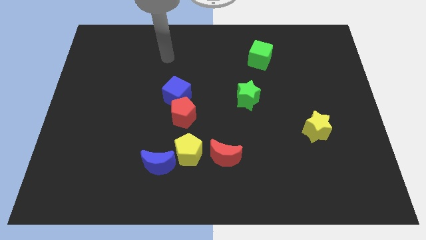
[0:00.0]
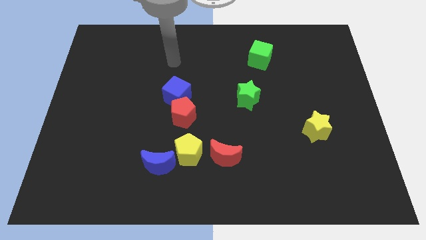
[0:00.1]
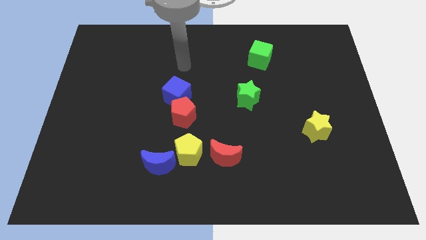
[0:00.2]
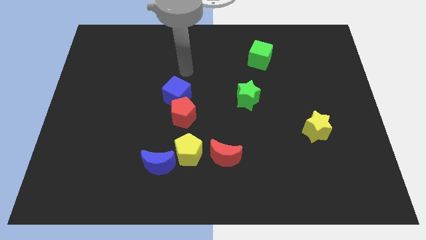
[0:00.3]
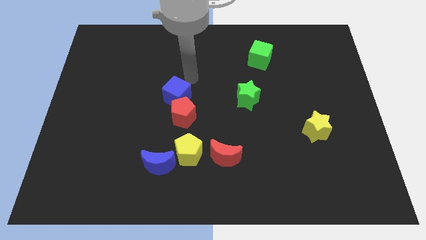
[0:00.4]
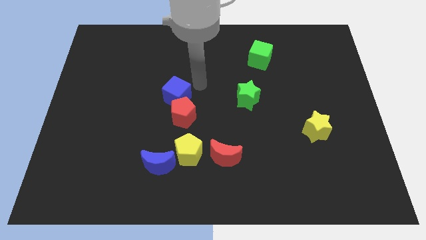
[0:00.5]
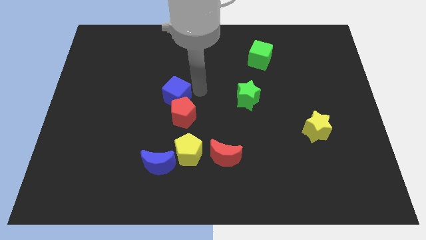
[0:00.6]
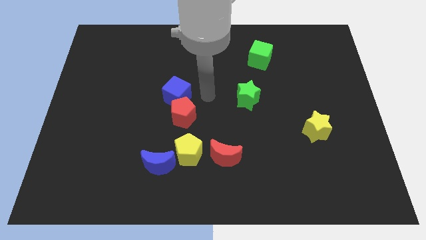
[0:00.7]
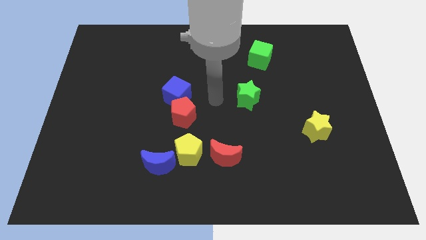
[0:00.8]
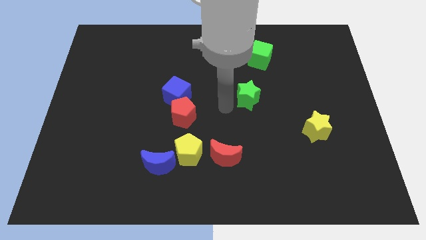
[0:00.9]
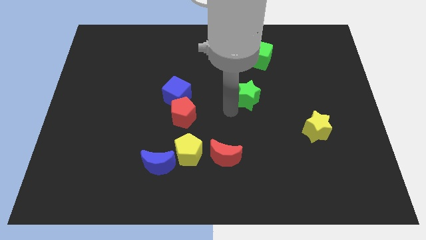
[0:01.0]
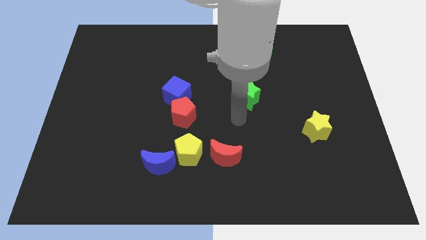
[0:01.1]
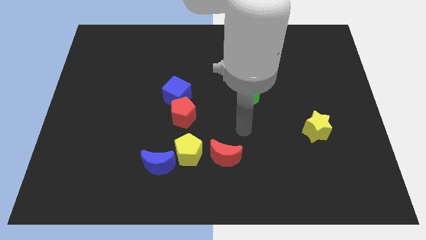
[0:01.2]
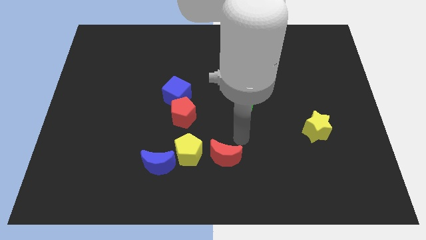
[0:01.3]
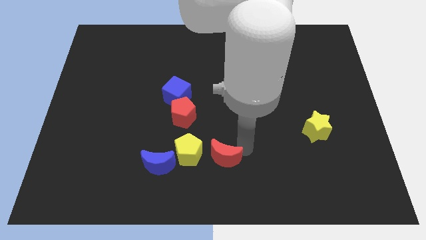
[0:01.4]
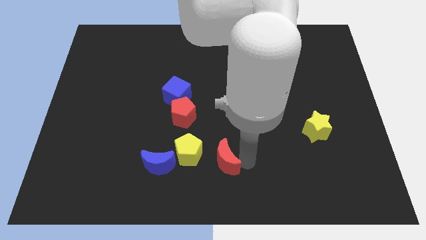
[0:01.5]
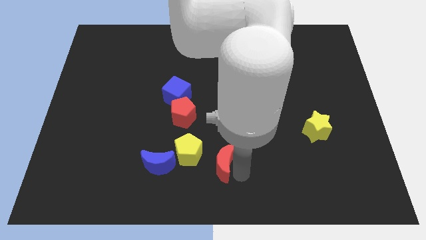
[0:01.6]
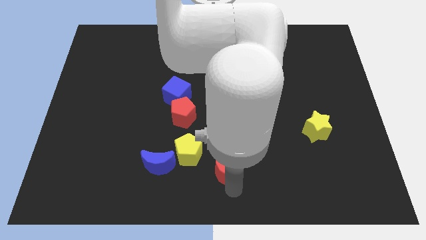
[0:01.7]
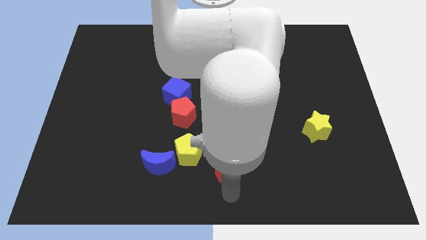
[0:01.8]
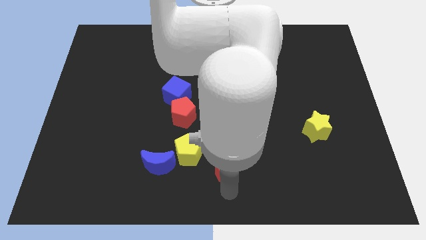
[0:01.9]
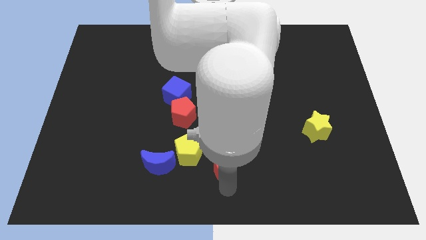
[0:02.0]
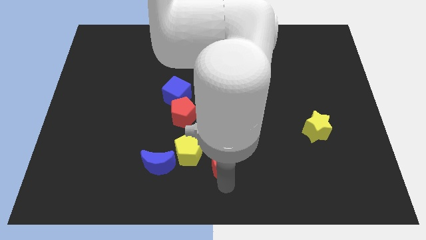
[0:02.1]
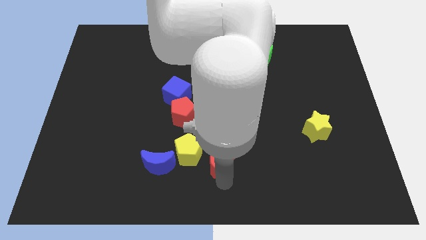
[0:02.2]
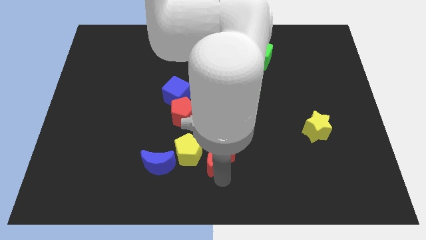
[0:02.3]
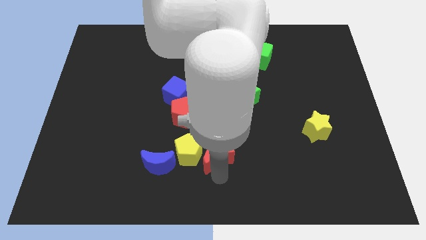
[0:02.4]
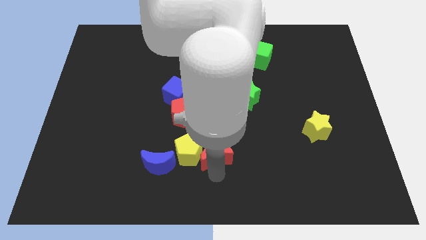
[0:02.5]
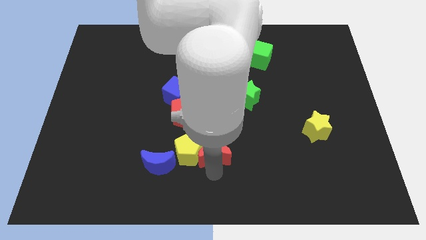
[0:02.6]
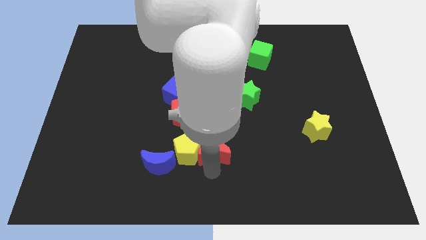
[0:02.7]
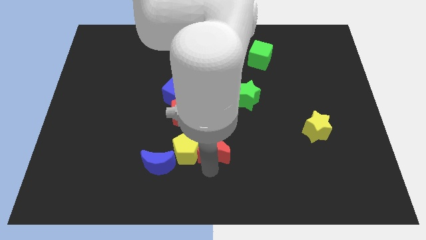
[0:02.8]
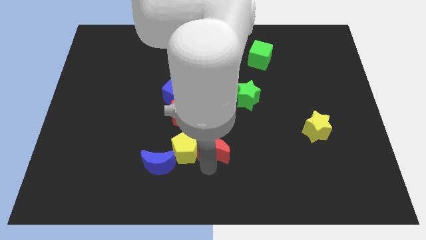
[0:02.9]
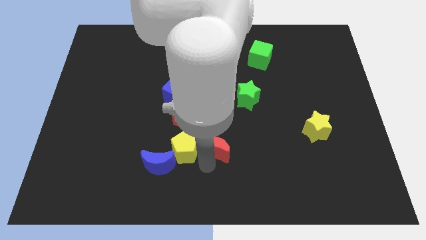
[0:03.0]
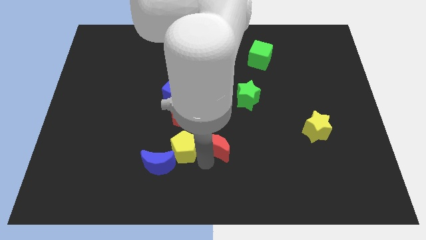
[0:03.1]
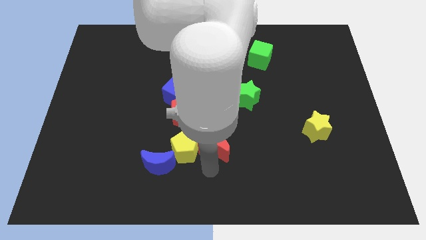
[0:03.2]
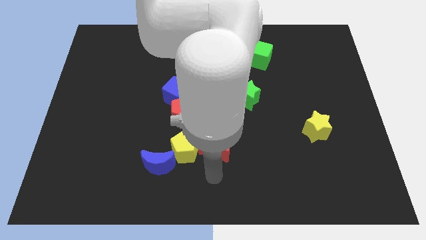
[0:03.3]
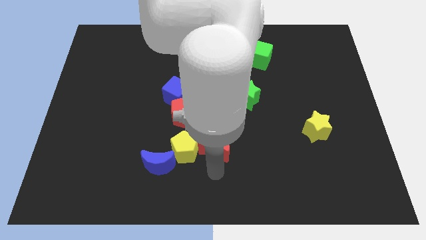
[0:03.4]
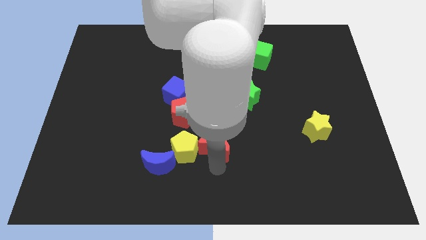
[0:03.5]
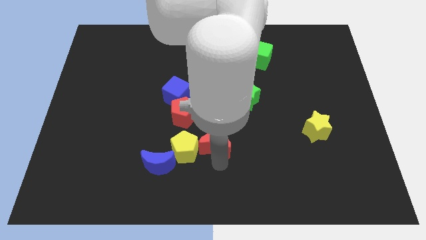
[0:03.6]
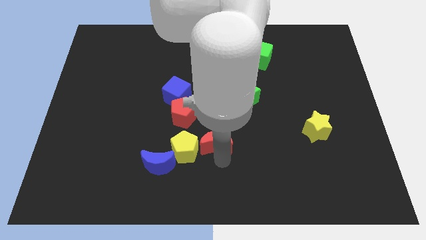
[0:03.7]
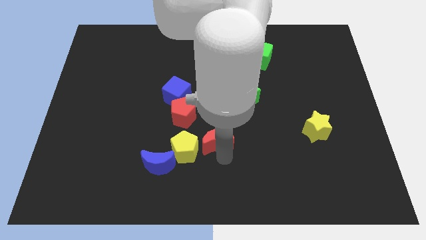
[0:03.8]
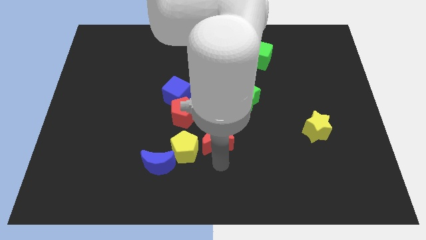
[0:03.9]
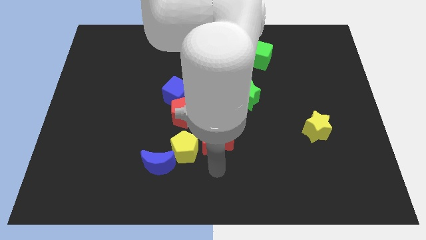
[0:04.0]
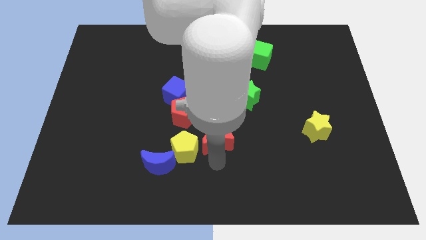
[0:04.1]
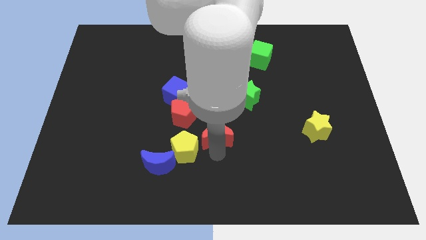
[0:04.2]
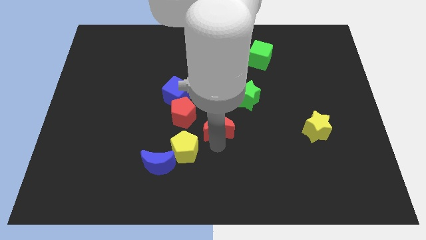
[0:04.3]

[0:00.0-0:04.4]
push the red moon up slightly

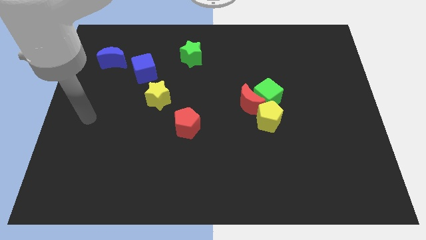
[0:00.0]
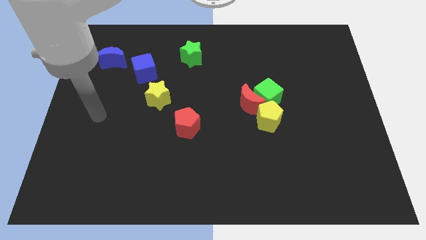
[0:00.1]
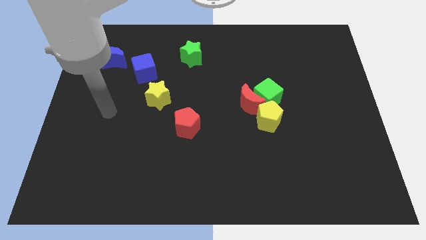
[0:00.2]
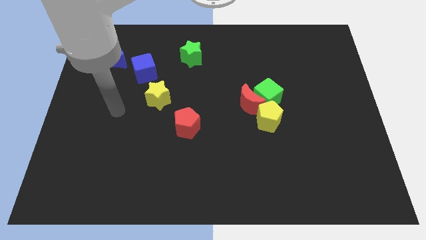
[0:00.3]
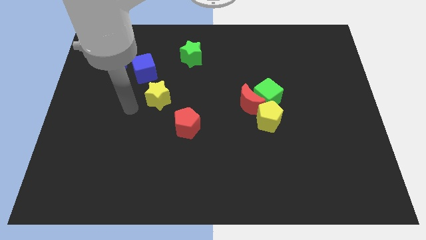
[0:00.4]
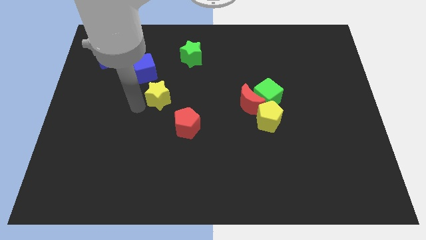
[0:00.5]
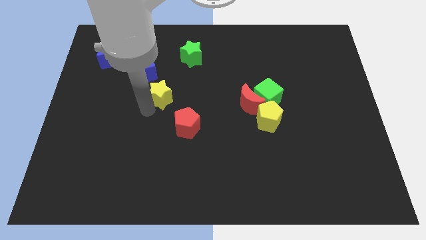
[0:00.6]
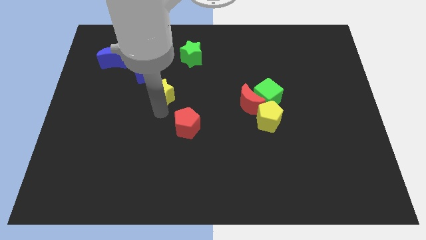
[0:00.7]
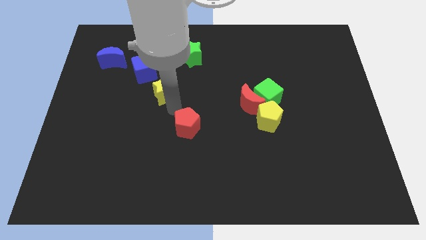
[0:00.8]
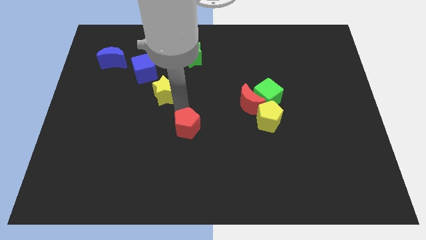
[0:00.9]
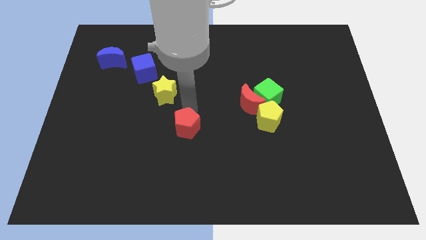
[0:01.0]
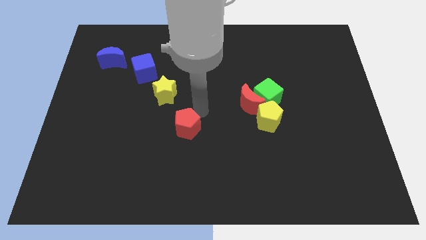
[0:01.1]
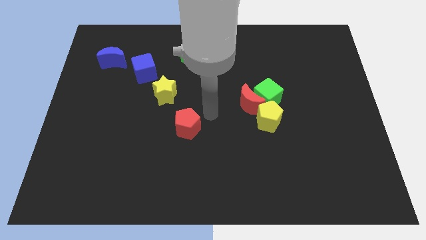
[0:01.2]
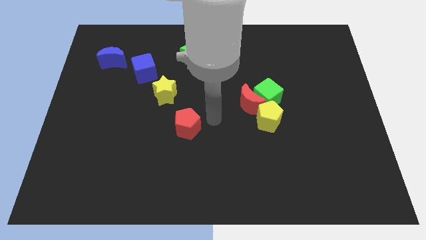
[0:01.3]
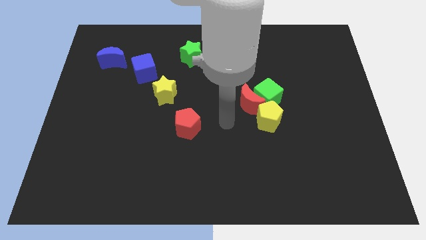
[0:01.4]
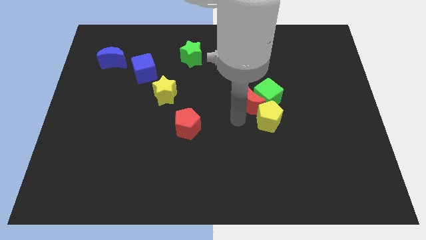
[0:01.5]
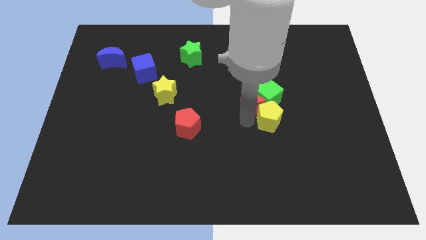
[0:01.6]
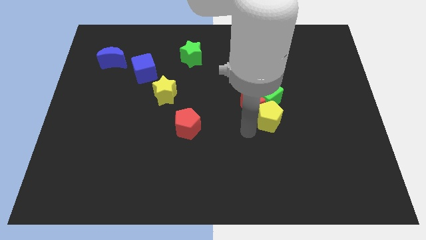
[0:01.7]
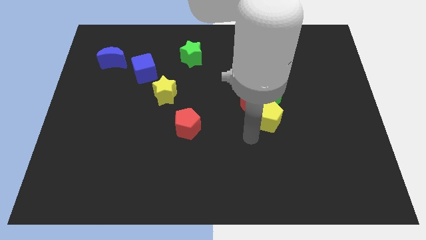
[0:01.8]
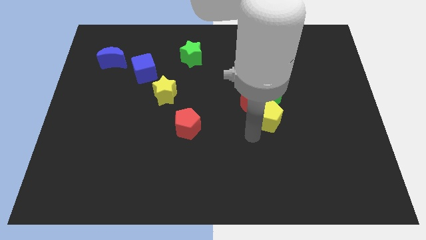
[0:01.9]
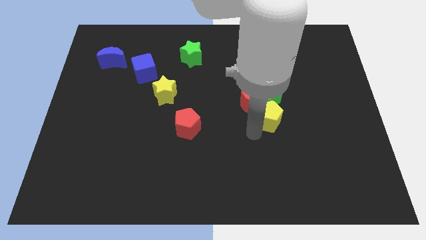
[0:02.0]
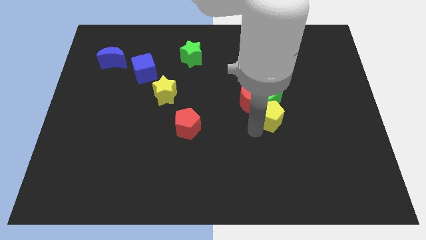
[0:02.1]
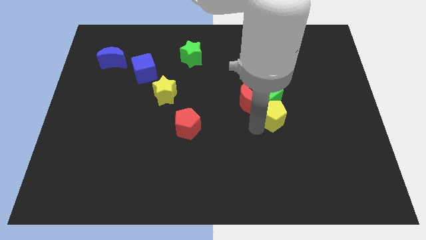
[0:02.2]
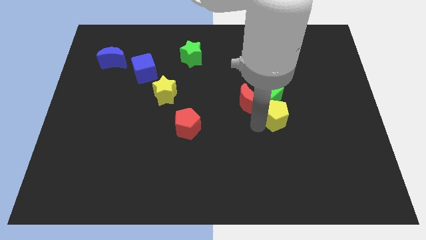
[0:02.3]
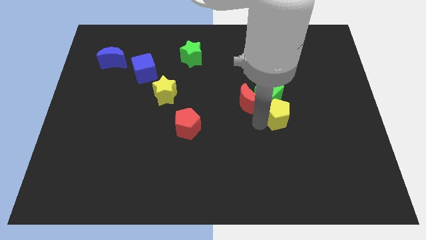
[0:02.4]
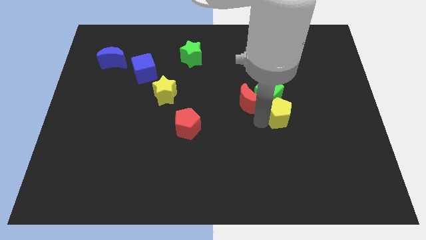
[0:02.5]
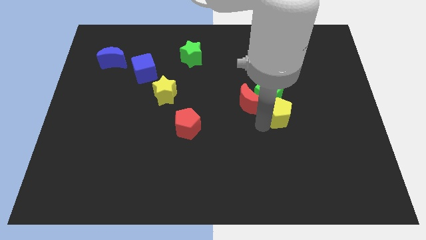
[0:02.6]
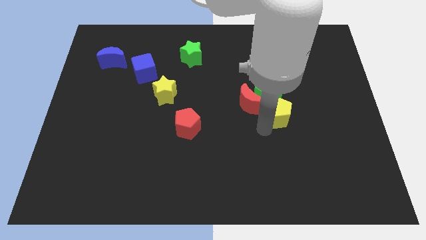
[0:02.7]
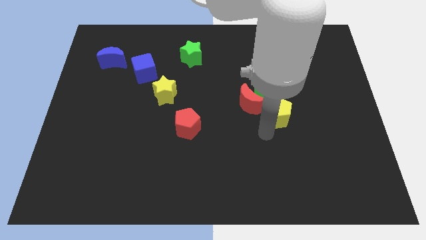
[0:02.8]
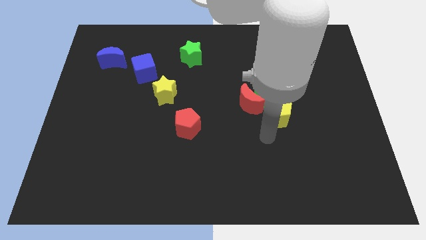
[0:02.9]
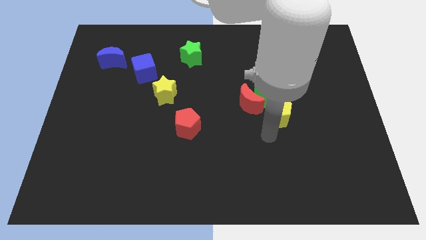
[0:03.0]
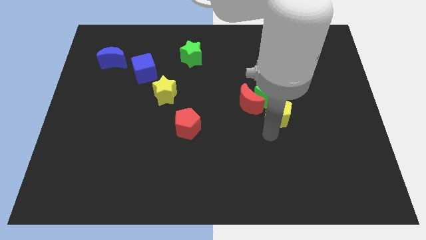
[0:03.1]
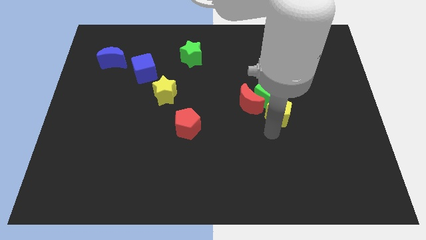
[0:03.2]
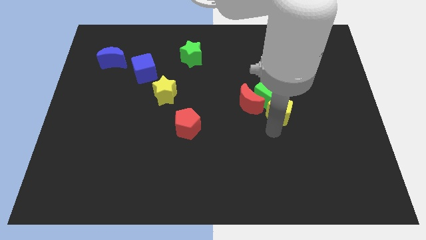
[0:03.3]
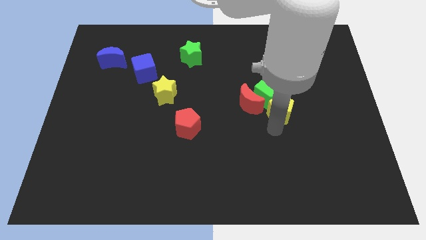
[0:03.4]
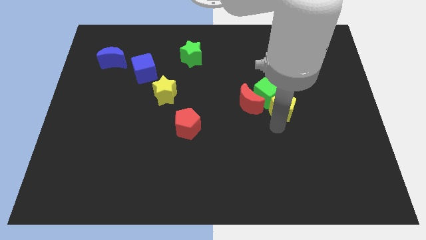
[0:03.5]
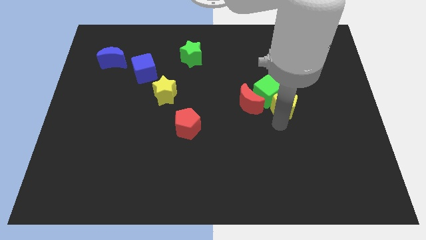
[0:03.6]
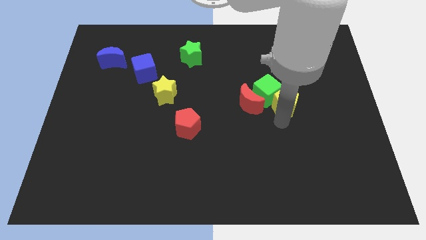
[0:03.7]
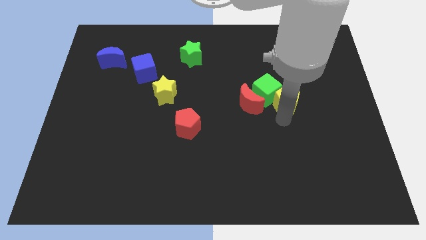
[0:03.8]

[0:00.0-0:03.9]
slide the yellow pentagon a little bit up and then to the right
